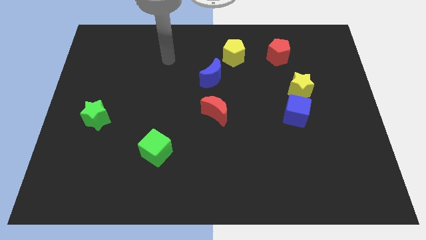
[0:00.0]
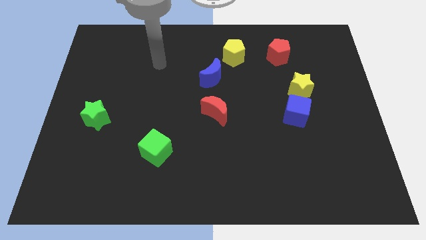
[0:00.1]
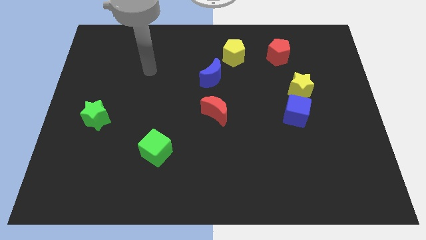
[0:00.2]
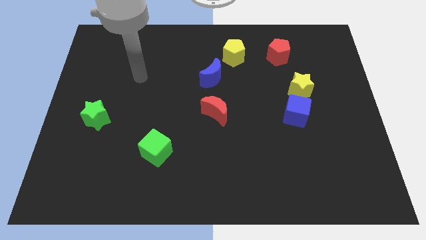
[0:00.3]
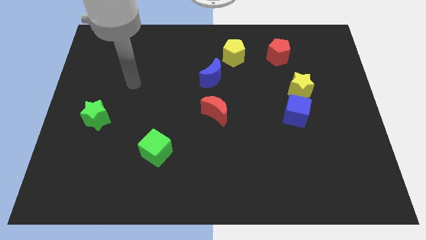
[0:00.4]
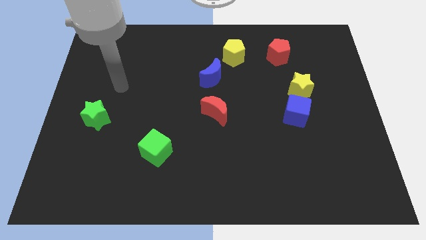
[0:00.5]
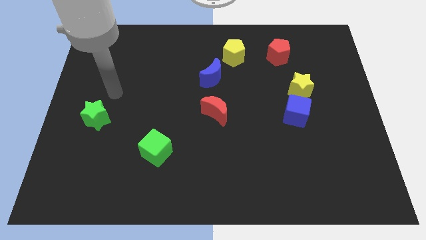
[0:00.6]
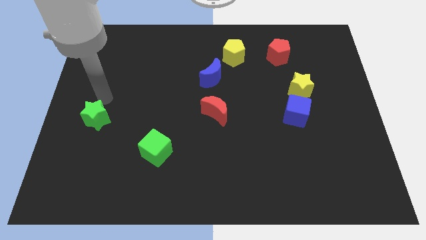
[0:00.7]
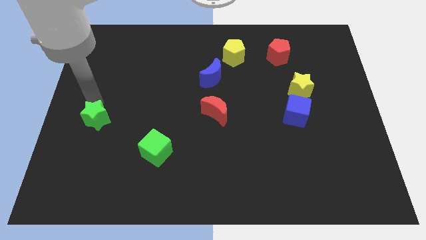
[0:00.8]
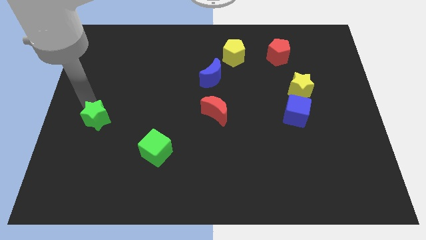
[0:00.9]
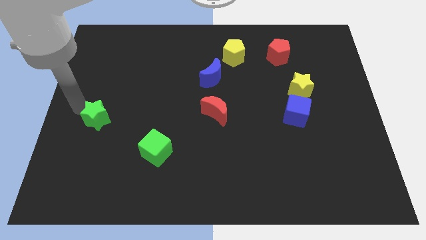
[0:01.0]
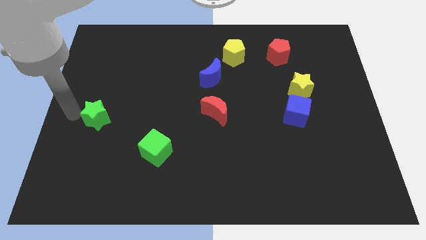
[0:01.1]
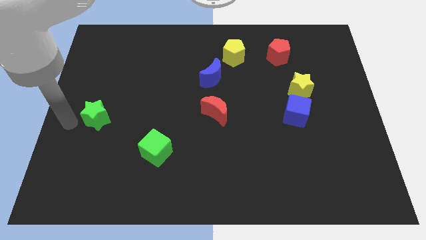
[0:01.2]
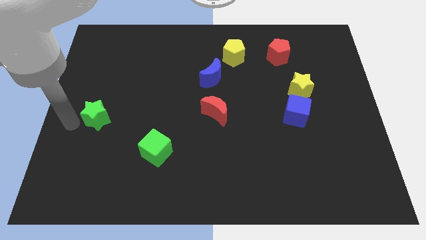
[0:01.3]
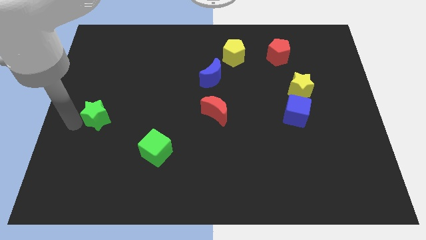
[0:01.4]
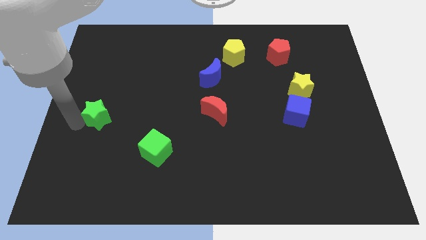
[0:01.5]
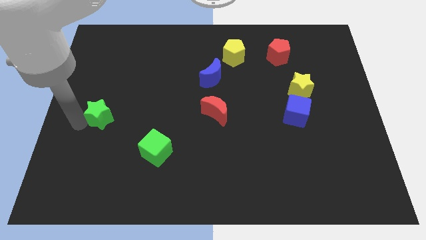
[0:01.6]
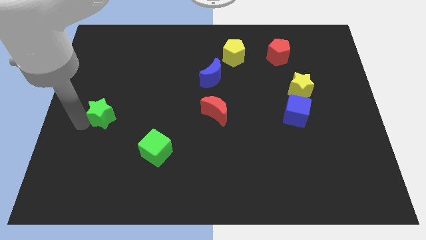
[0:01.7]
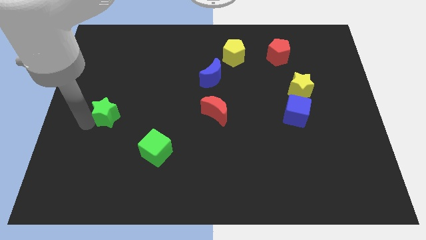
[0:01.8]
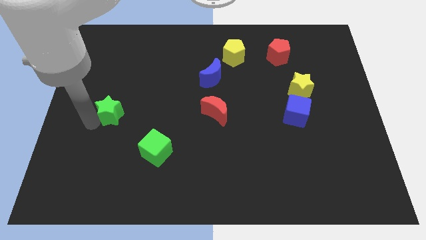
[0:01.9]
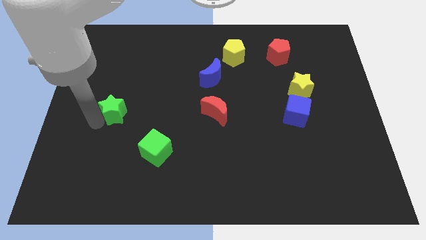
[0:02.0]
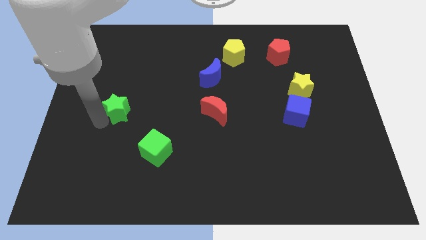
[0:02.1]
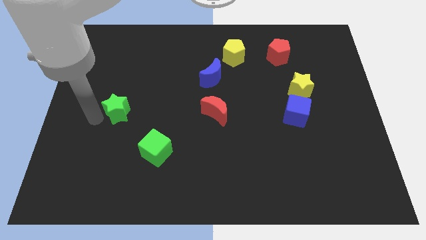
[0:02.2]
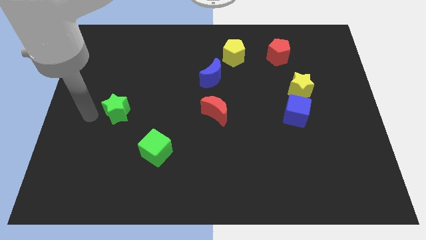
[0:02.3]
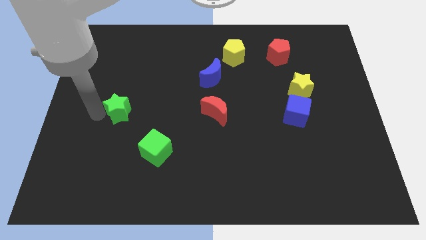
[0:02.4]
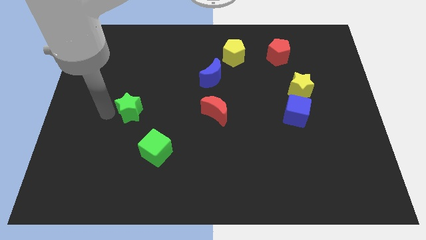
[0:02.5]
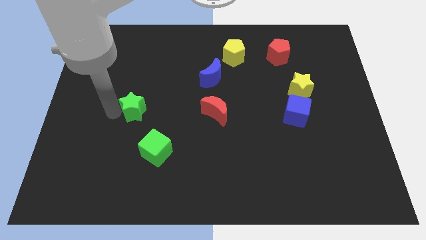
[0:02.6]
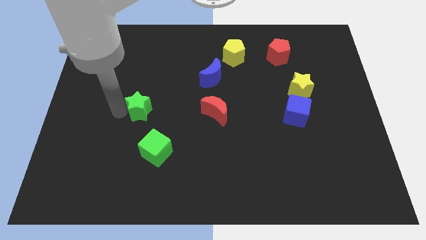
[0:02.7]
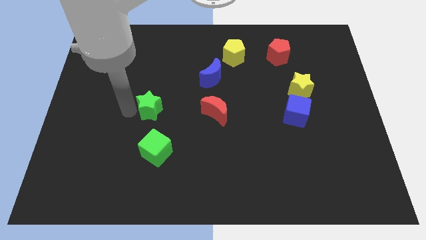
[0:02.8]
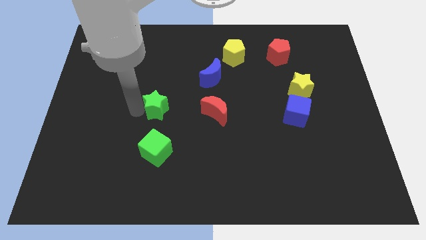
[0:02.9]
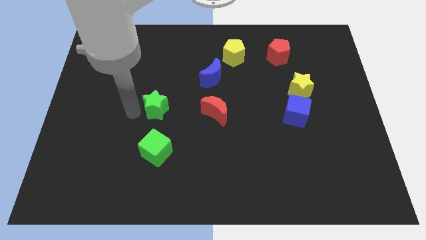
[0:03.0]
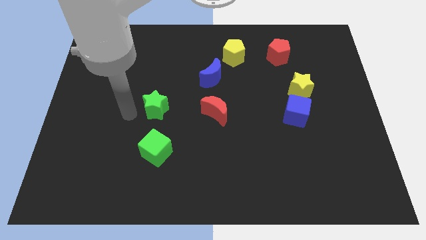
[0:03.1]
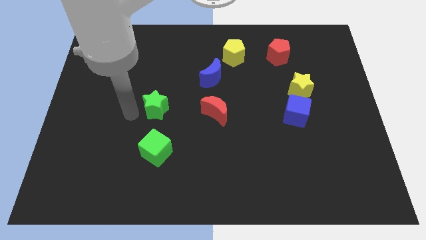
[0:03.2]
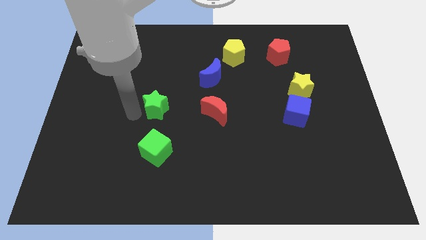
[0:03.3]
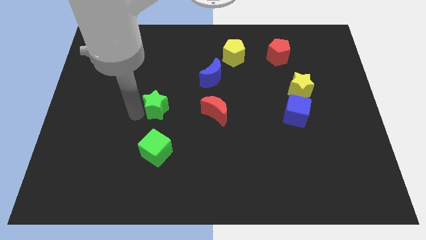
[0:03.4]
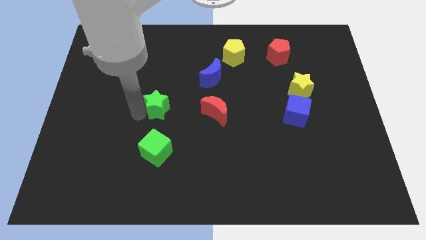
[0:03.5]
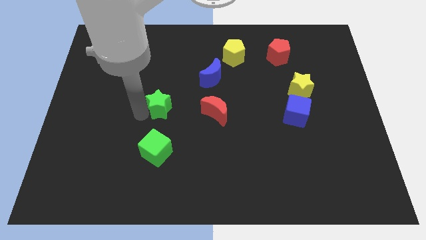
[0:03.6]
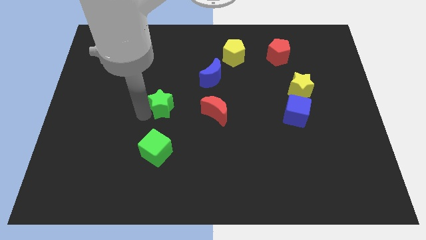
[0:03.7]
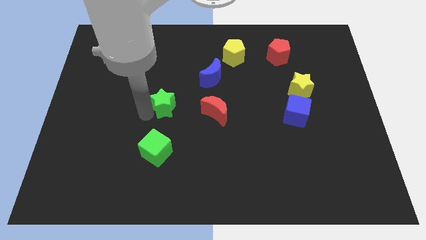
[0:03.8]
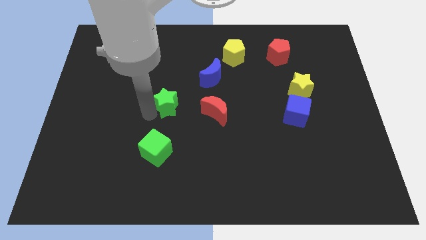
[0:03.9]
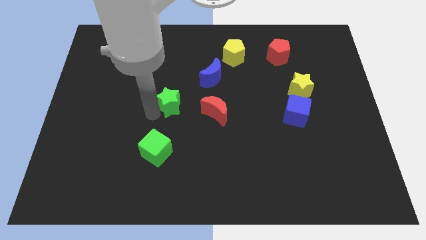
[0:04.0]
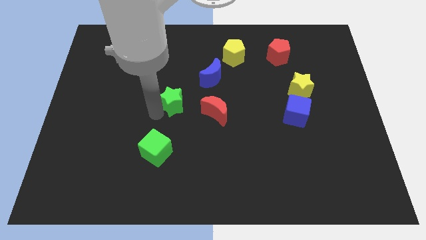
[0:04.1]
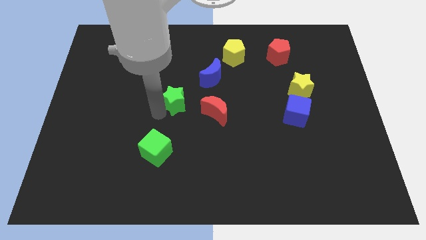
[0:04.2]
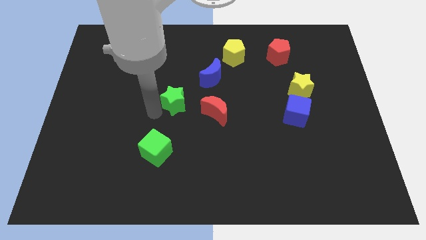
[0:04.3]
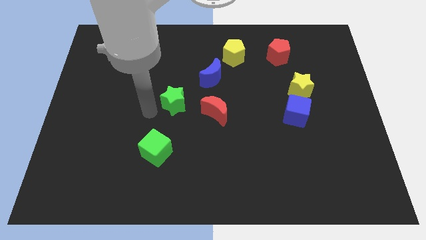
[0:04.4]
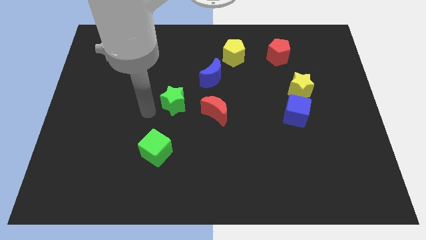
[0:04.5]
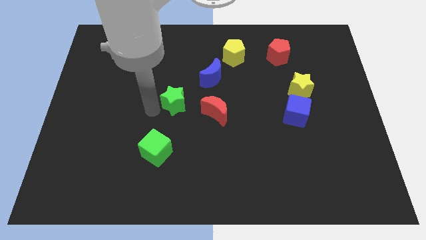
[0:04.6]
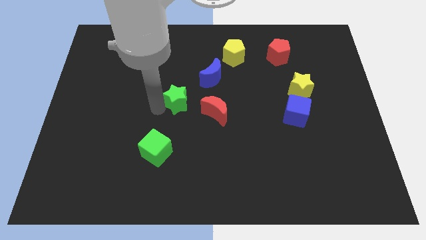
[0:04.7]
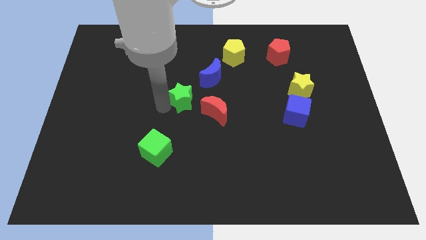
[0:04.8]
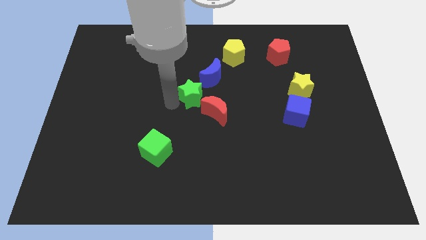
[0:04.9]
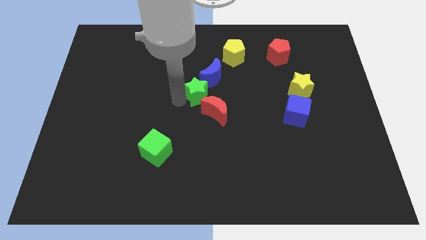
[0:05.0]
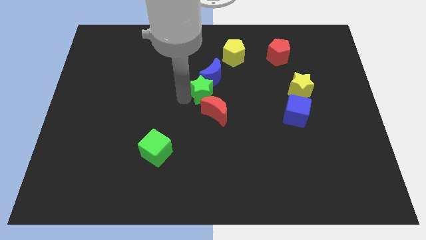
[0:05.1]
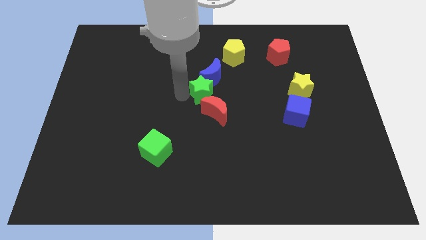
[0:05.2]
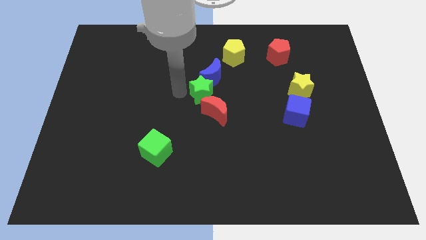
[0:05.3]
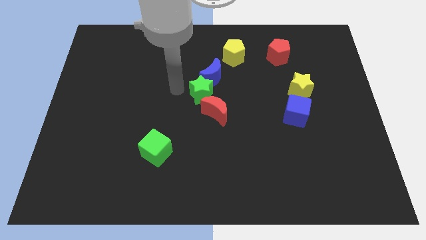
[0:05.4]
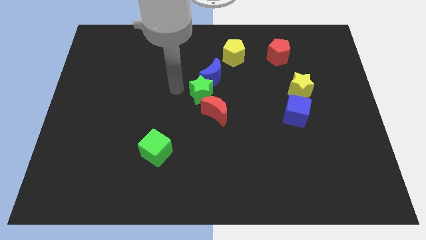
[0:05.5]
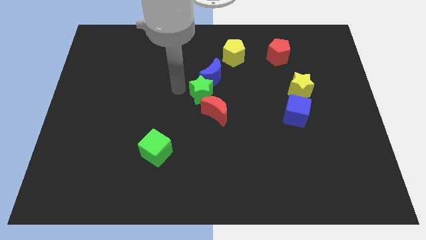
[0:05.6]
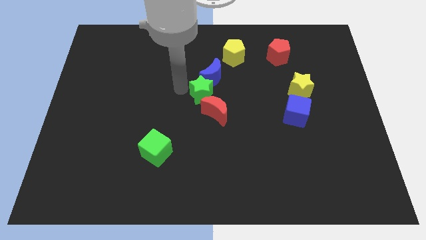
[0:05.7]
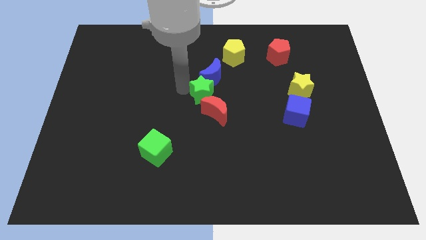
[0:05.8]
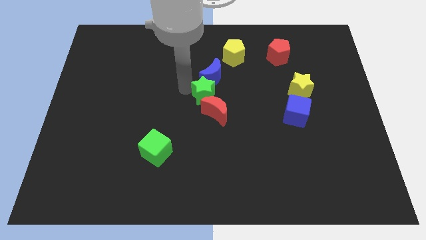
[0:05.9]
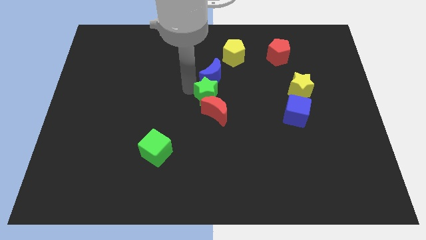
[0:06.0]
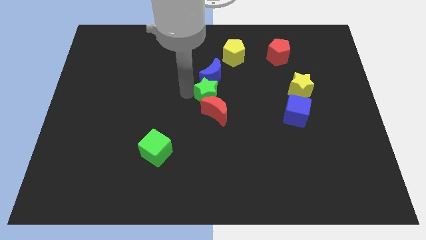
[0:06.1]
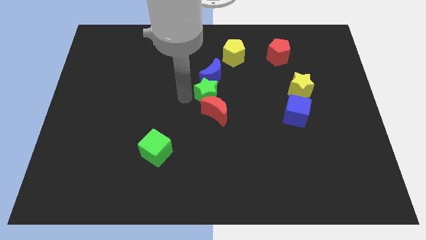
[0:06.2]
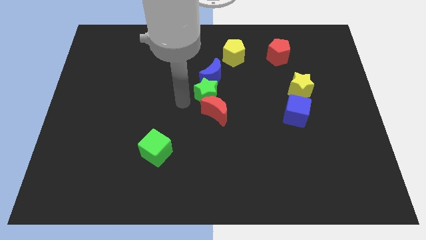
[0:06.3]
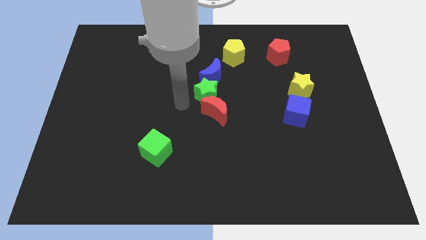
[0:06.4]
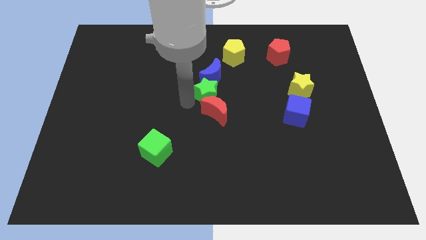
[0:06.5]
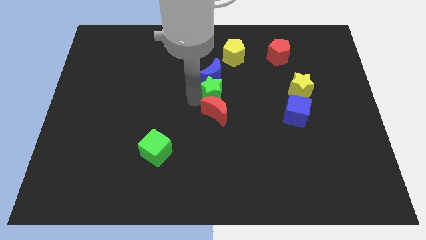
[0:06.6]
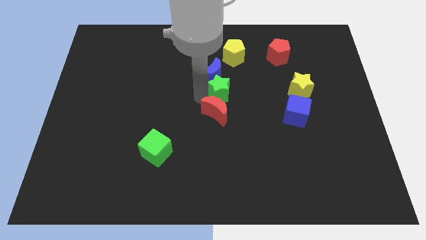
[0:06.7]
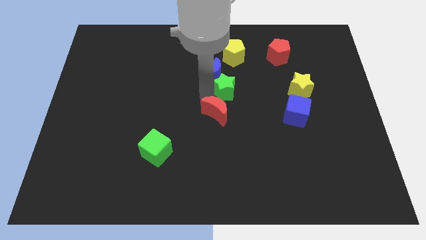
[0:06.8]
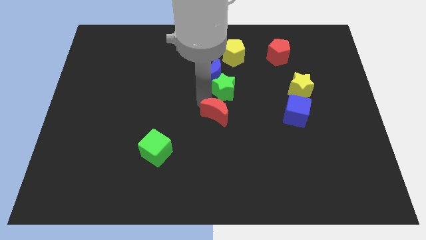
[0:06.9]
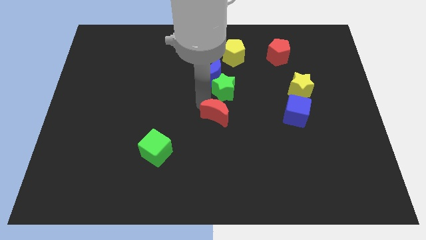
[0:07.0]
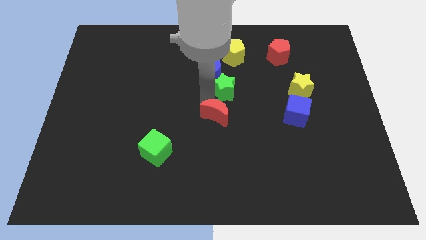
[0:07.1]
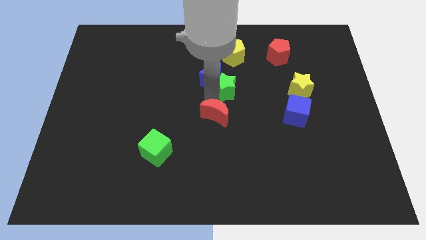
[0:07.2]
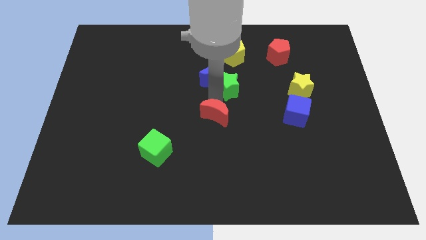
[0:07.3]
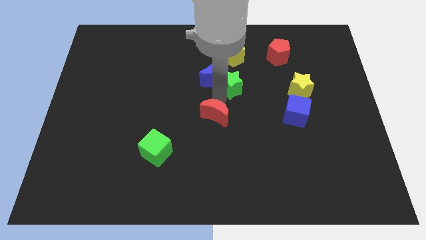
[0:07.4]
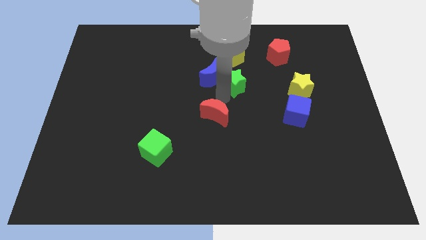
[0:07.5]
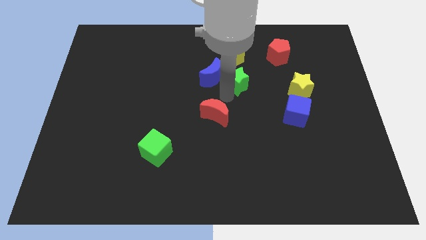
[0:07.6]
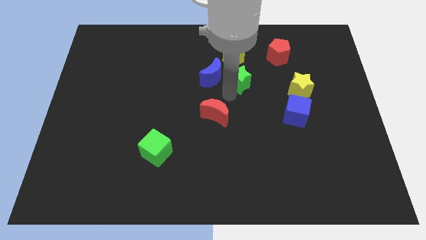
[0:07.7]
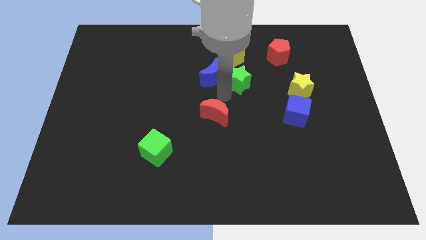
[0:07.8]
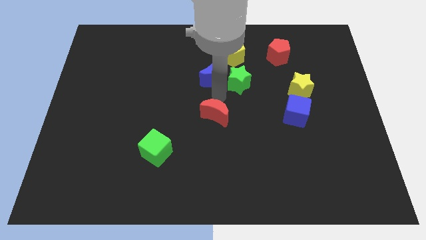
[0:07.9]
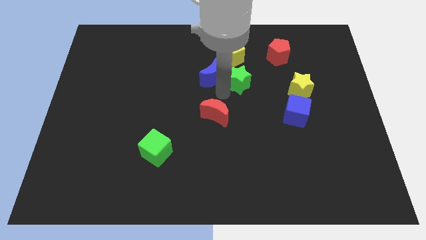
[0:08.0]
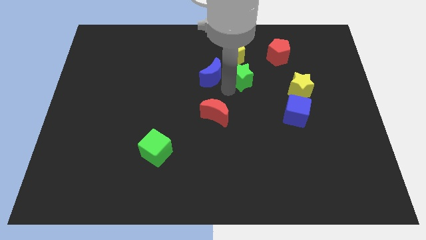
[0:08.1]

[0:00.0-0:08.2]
put the green star diagonally down and to the right of the yellow pentagon
